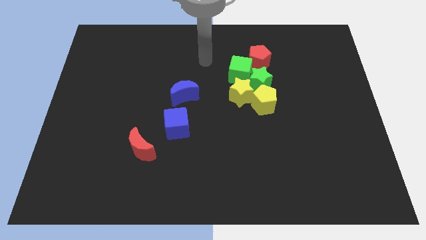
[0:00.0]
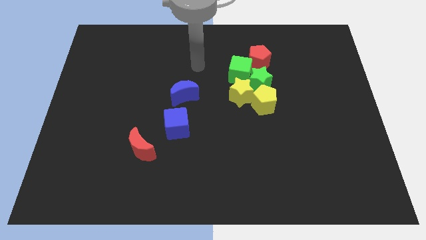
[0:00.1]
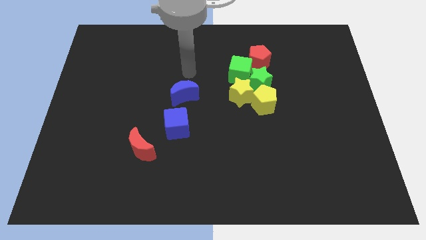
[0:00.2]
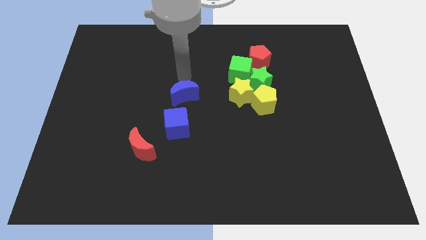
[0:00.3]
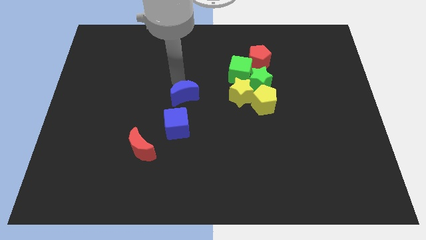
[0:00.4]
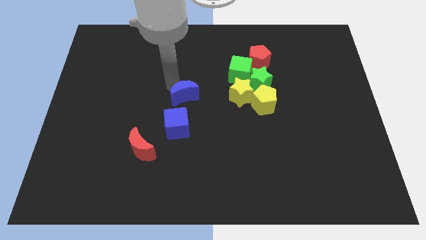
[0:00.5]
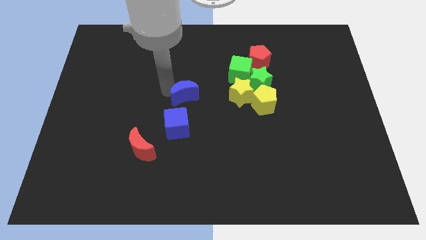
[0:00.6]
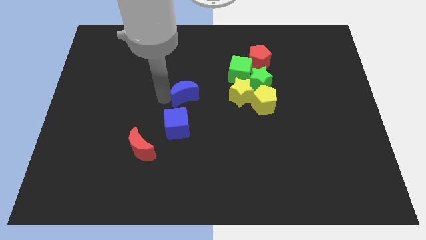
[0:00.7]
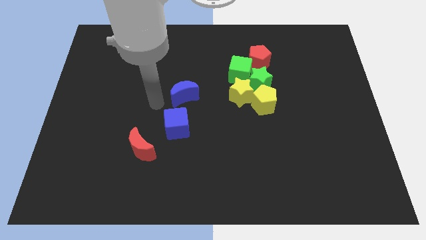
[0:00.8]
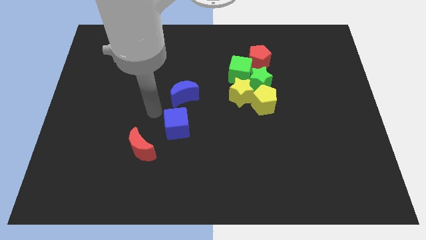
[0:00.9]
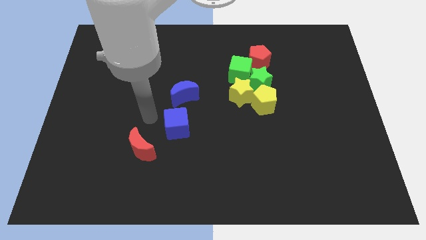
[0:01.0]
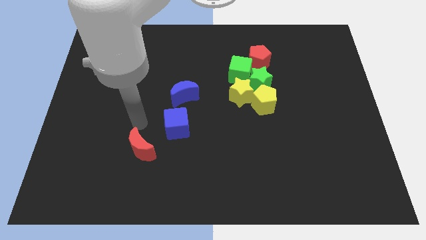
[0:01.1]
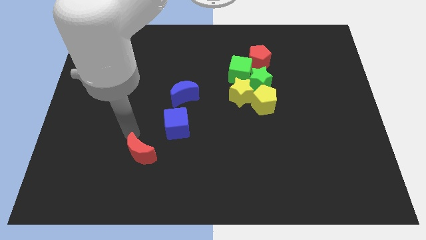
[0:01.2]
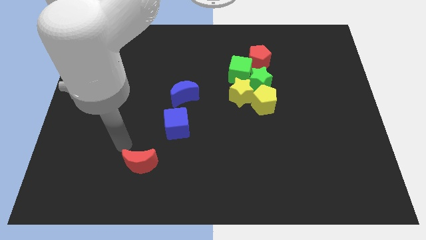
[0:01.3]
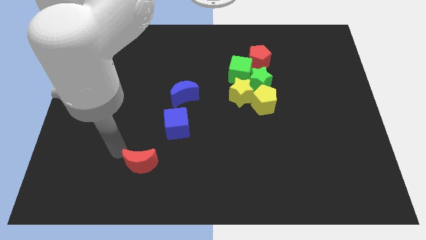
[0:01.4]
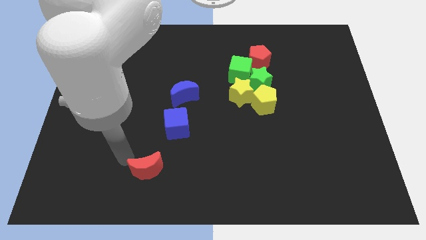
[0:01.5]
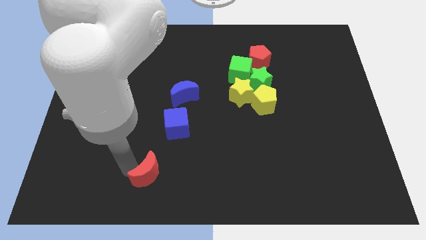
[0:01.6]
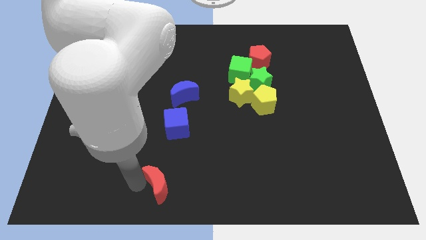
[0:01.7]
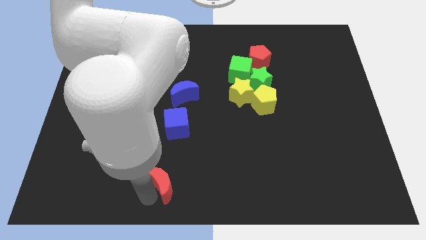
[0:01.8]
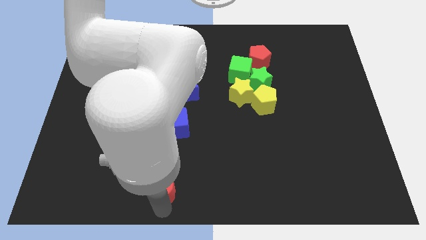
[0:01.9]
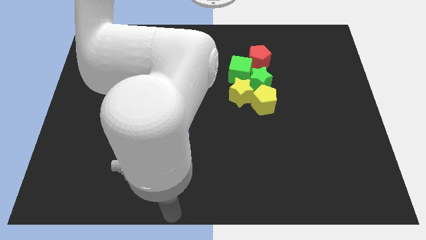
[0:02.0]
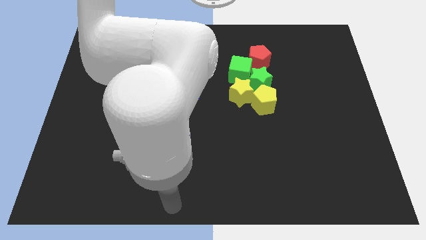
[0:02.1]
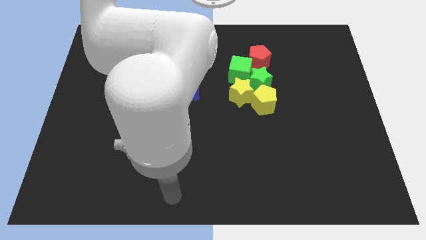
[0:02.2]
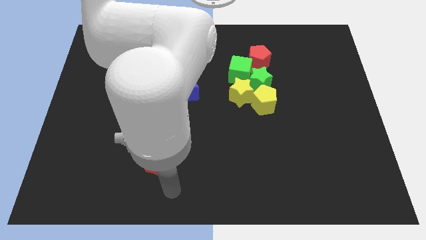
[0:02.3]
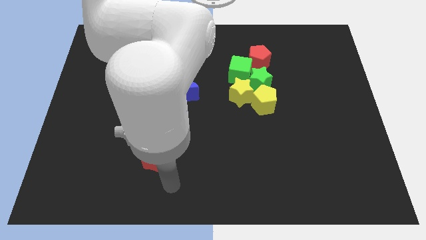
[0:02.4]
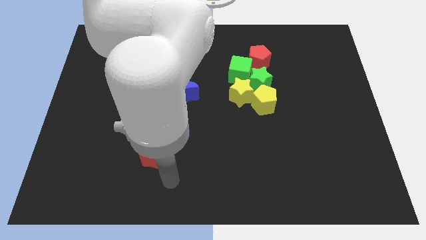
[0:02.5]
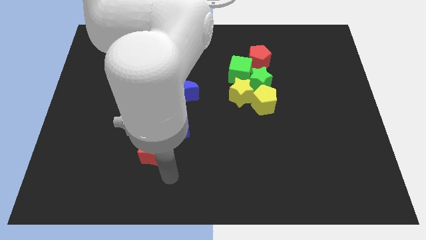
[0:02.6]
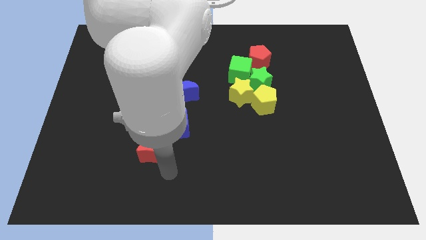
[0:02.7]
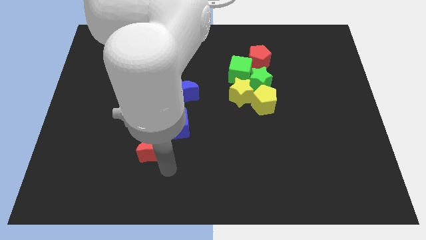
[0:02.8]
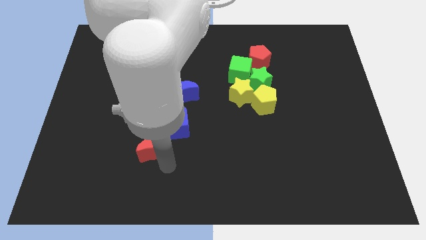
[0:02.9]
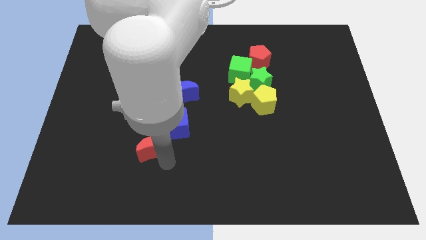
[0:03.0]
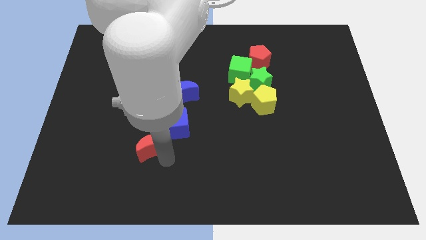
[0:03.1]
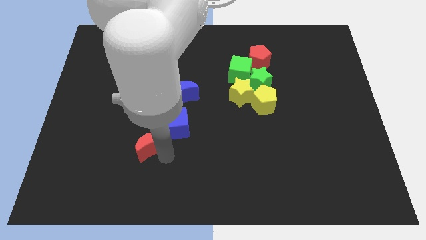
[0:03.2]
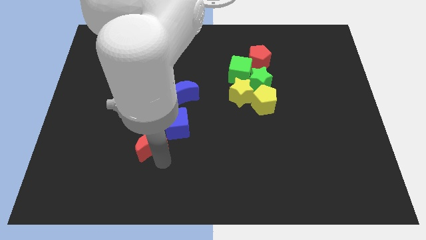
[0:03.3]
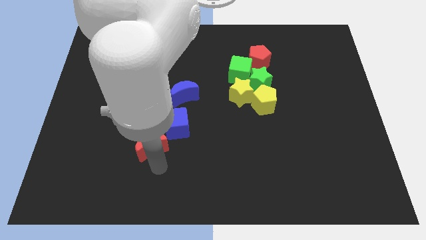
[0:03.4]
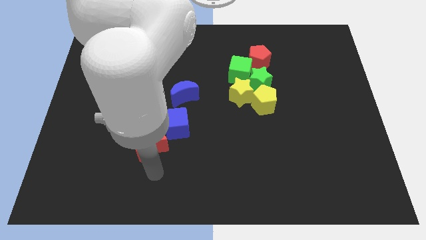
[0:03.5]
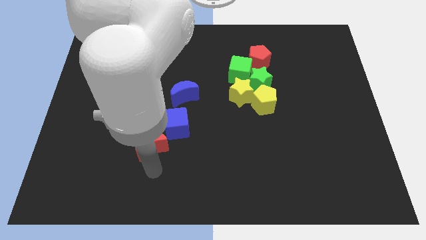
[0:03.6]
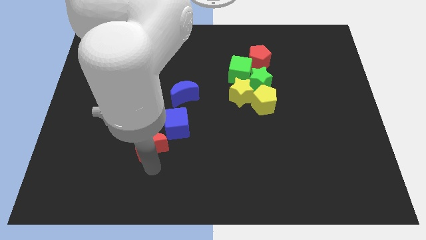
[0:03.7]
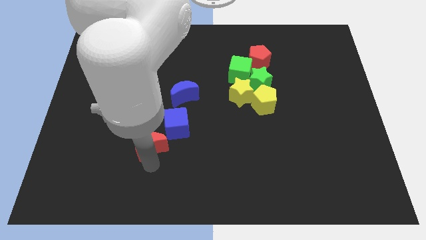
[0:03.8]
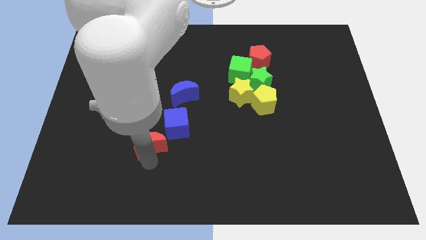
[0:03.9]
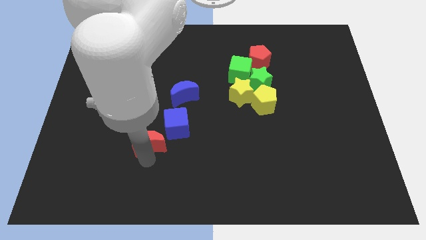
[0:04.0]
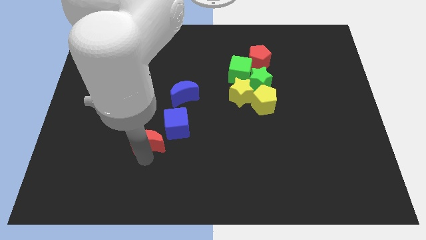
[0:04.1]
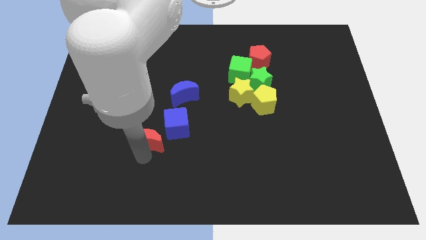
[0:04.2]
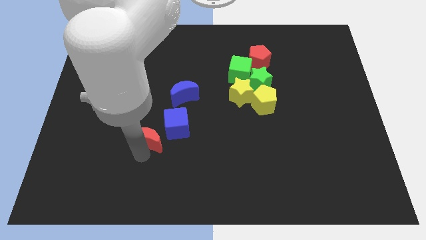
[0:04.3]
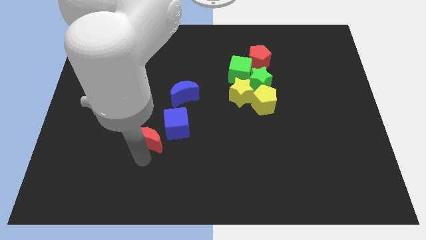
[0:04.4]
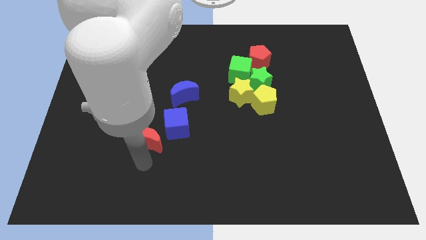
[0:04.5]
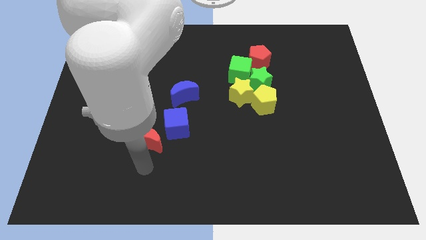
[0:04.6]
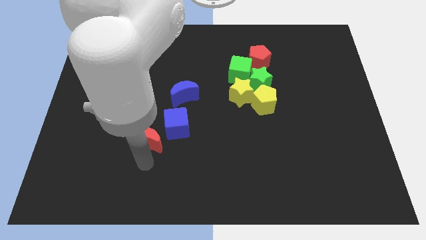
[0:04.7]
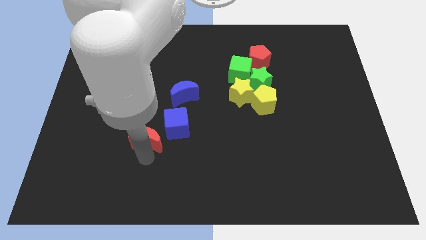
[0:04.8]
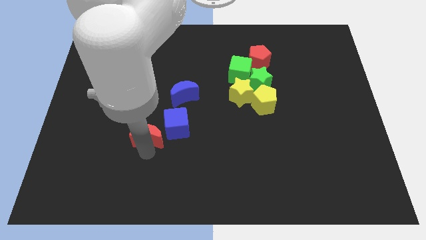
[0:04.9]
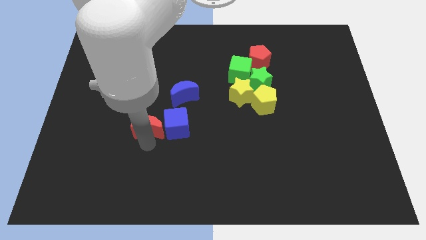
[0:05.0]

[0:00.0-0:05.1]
slide the red moon to the top left side of the blue cube

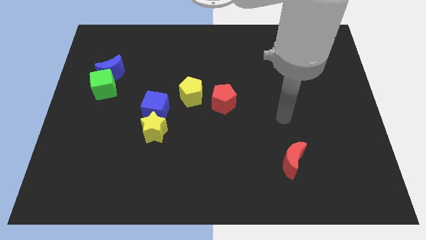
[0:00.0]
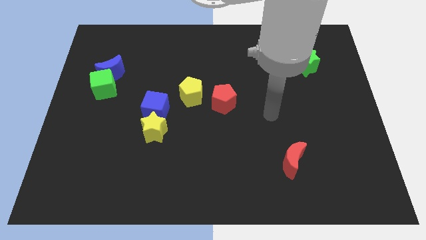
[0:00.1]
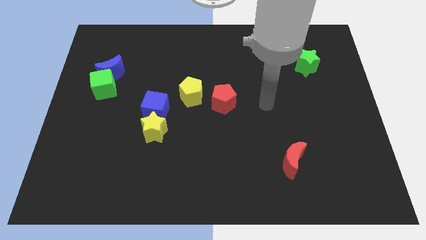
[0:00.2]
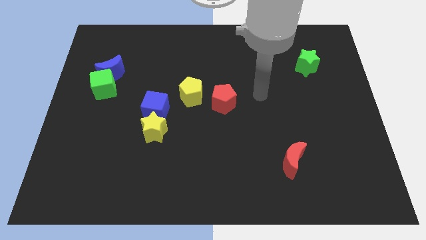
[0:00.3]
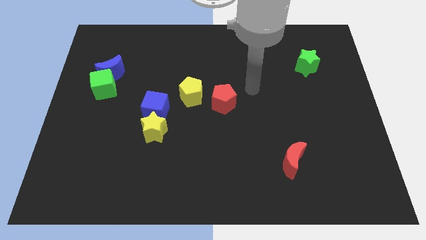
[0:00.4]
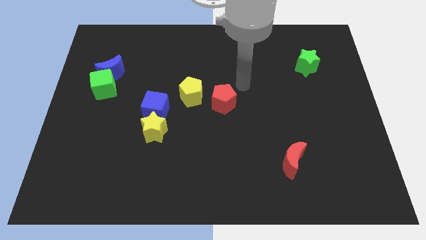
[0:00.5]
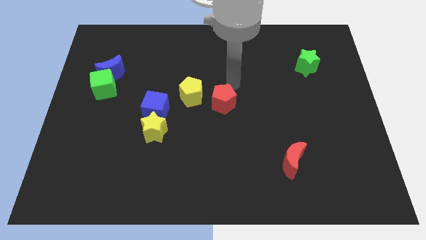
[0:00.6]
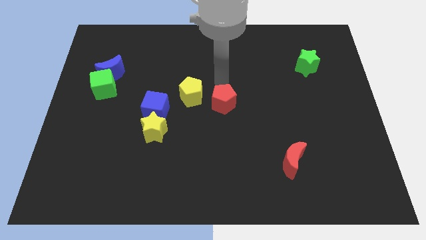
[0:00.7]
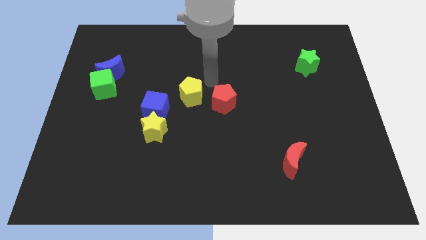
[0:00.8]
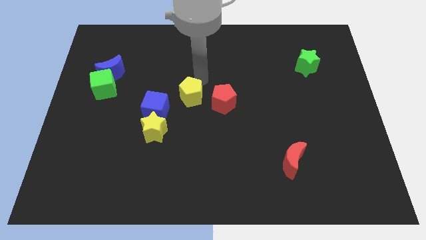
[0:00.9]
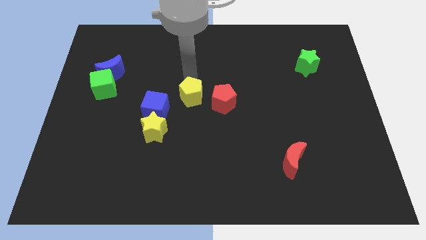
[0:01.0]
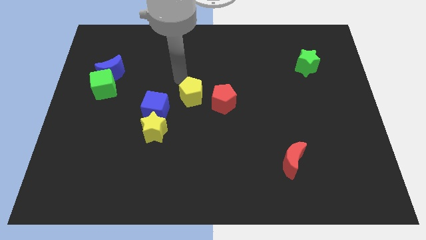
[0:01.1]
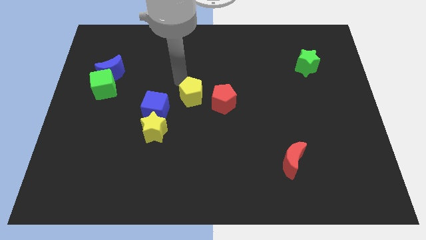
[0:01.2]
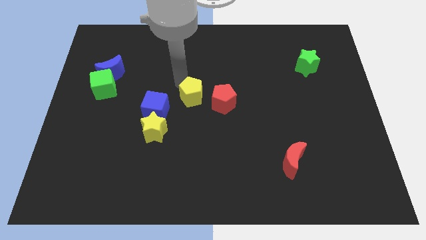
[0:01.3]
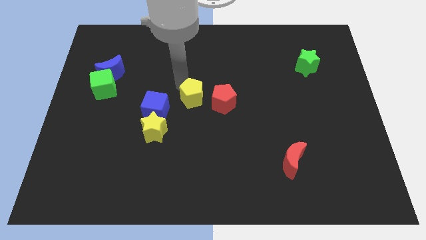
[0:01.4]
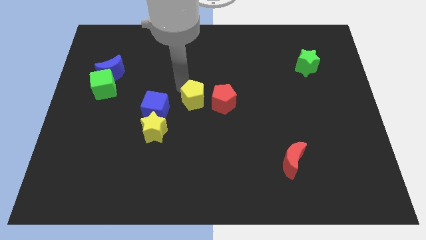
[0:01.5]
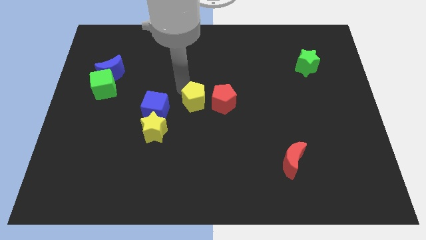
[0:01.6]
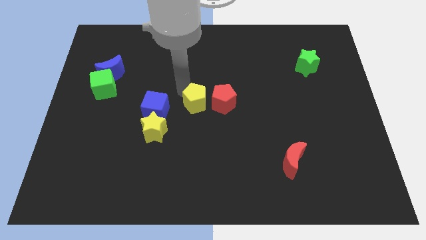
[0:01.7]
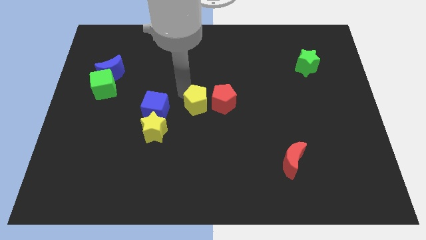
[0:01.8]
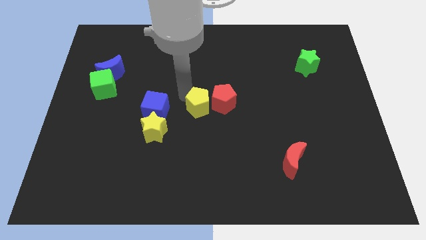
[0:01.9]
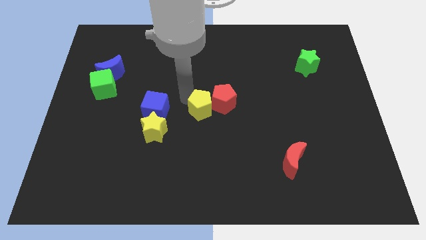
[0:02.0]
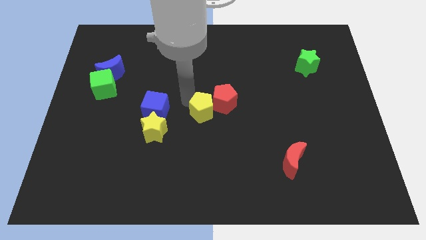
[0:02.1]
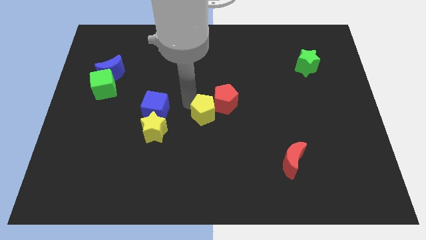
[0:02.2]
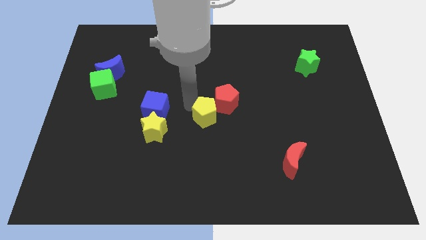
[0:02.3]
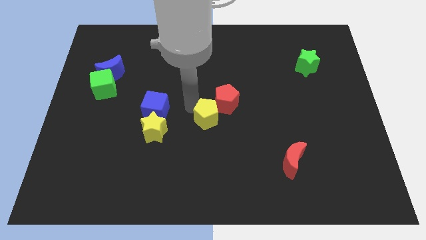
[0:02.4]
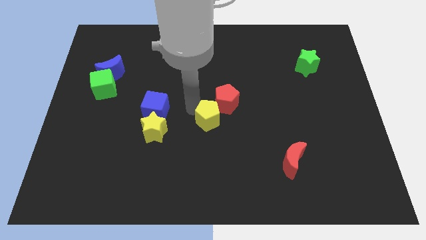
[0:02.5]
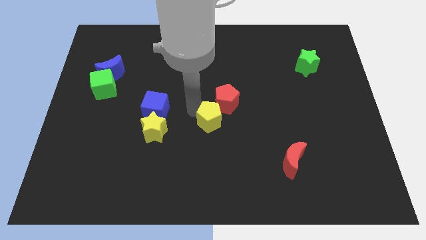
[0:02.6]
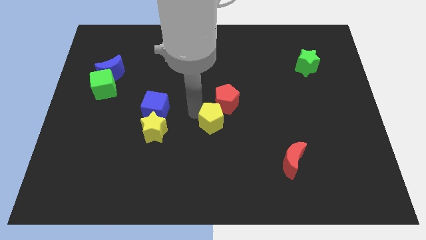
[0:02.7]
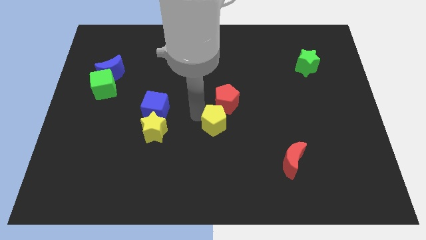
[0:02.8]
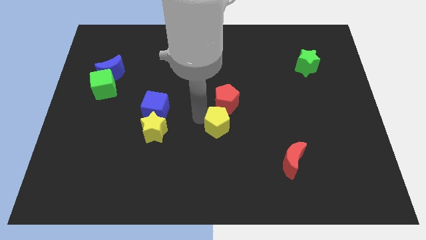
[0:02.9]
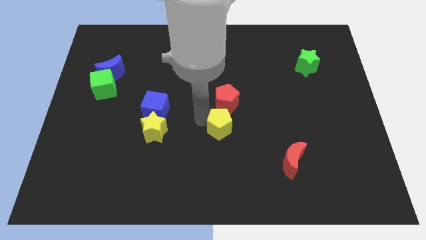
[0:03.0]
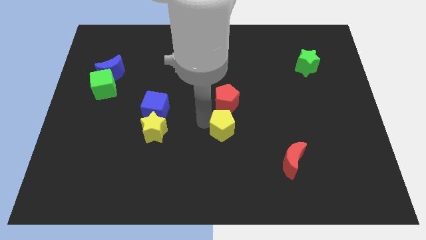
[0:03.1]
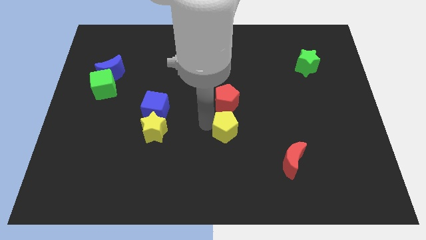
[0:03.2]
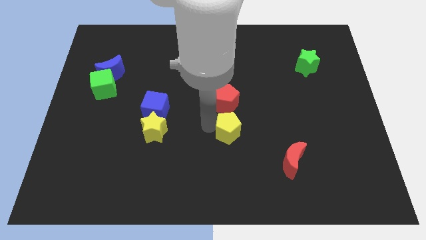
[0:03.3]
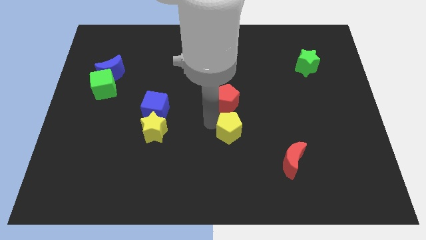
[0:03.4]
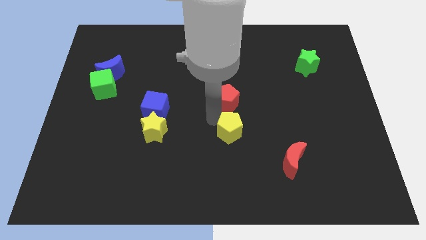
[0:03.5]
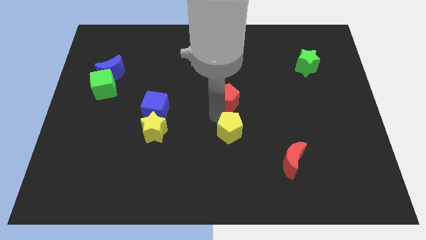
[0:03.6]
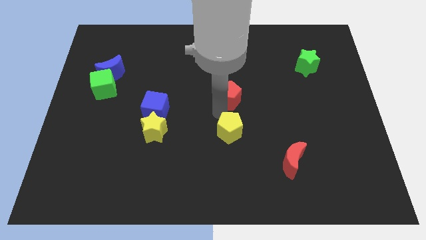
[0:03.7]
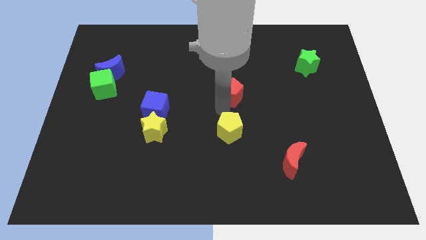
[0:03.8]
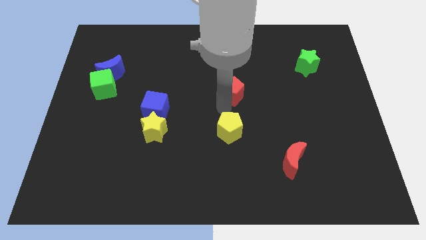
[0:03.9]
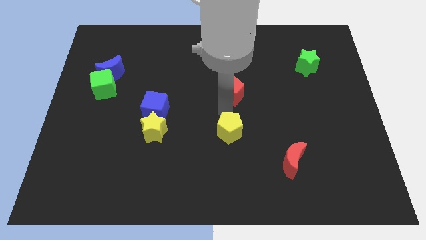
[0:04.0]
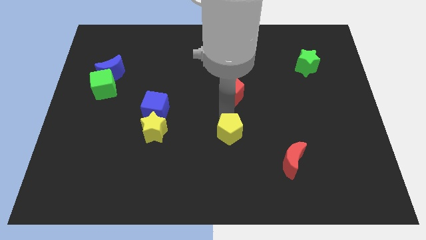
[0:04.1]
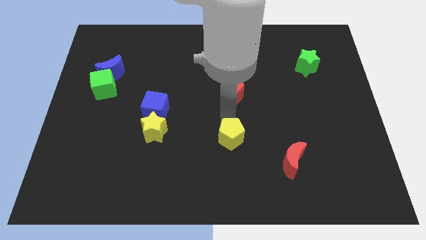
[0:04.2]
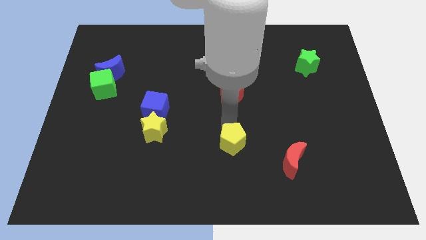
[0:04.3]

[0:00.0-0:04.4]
slide the yellow pentagon to the left side of the red moon
